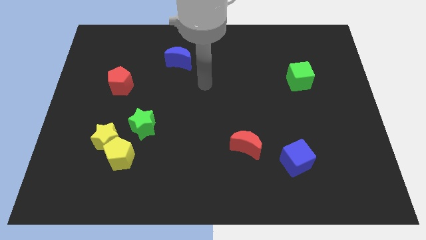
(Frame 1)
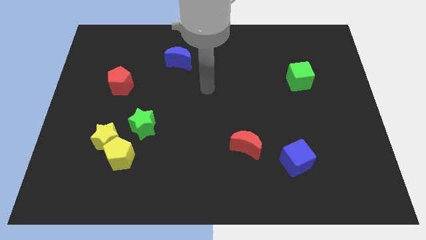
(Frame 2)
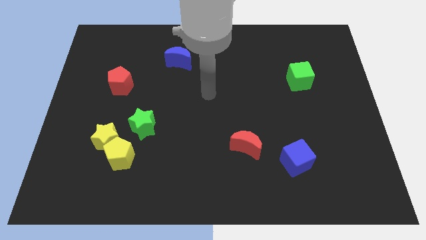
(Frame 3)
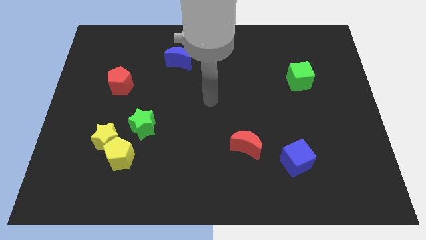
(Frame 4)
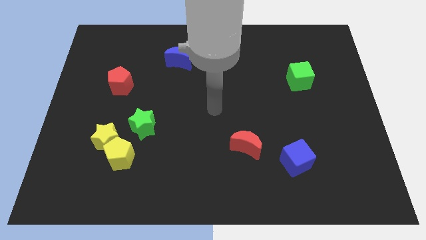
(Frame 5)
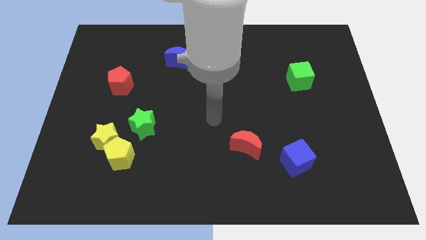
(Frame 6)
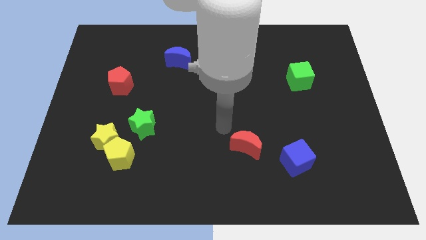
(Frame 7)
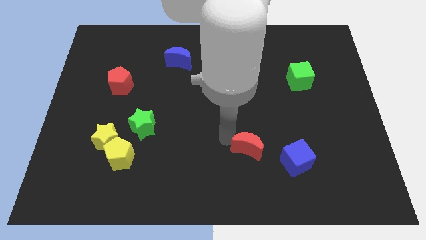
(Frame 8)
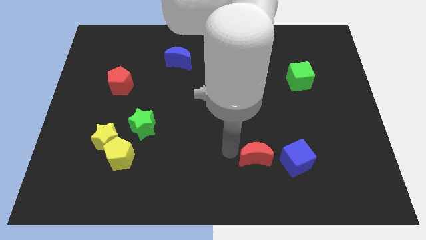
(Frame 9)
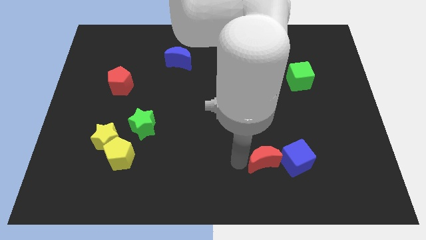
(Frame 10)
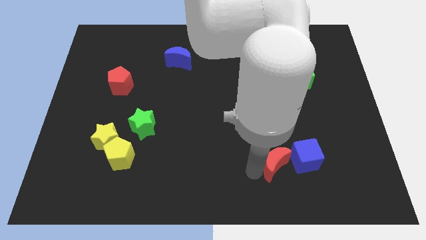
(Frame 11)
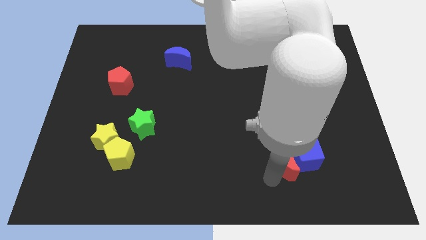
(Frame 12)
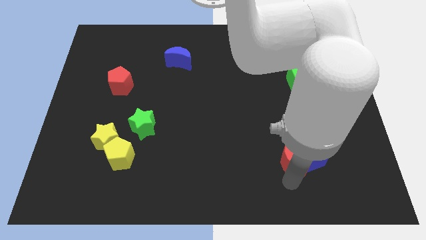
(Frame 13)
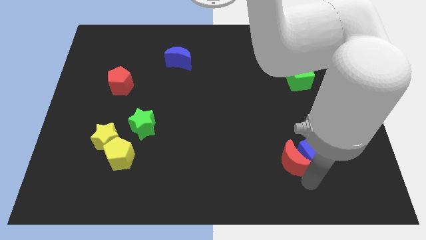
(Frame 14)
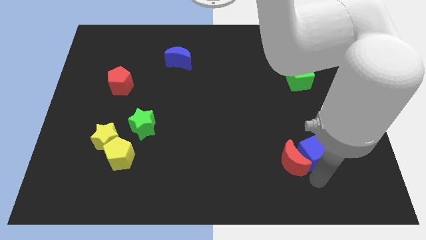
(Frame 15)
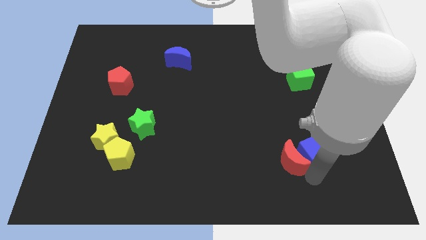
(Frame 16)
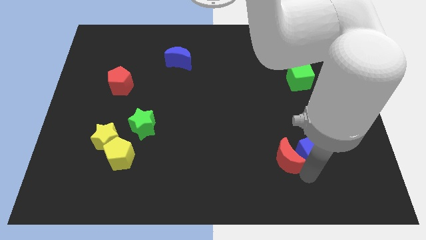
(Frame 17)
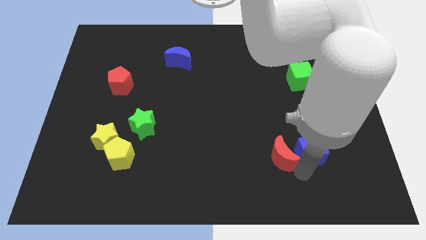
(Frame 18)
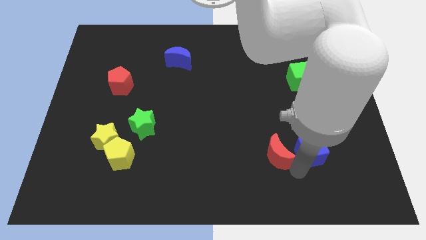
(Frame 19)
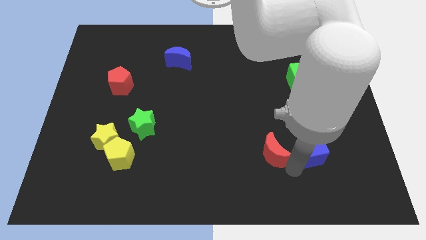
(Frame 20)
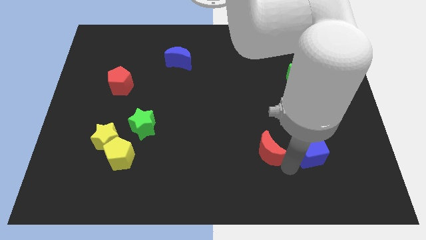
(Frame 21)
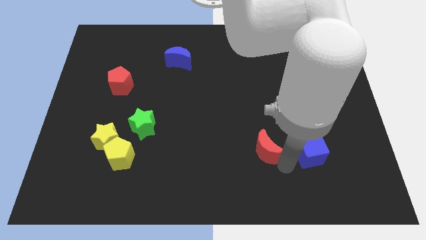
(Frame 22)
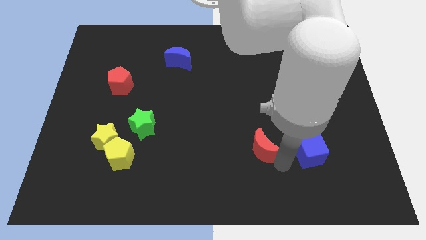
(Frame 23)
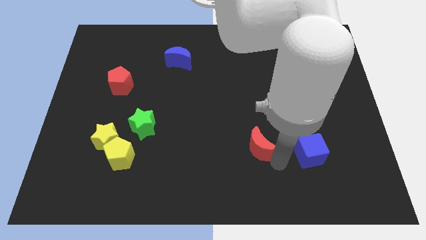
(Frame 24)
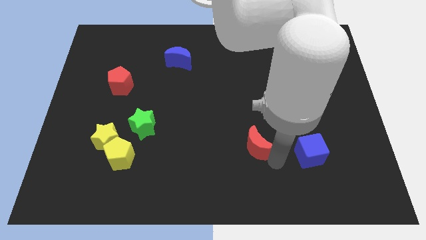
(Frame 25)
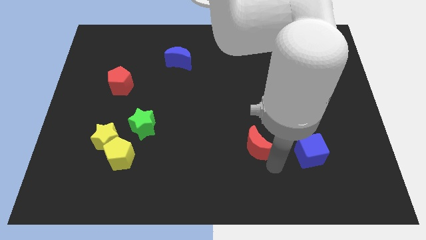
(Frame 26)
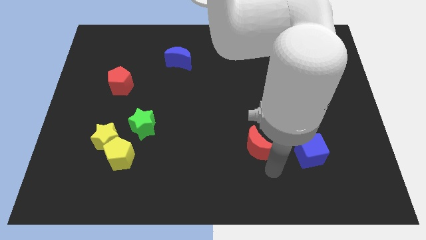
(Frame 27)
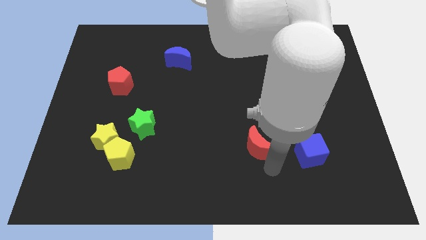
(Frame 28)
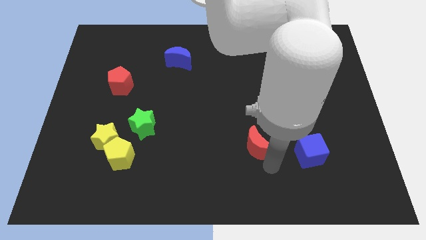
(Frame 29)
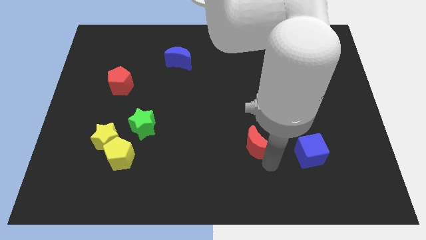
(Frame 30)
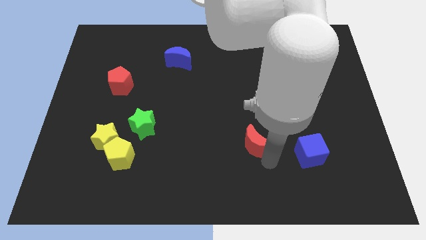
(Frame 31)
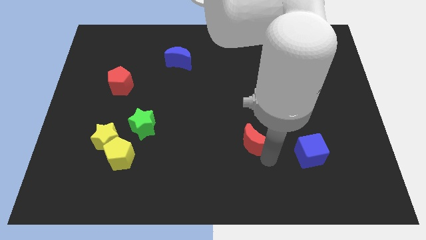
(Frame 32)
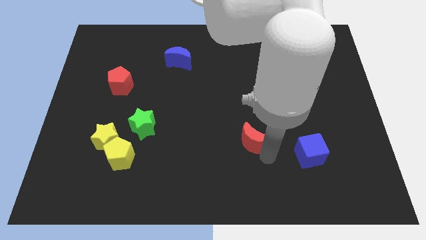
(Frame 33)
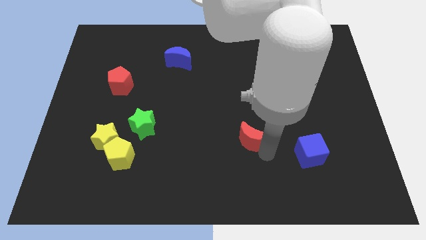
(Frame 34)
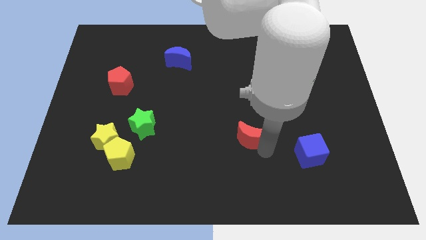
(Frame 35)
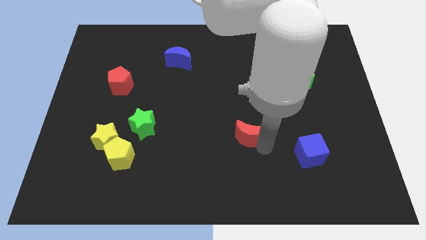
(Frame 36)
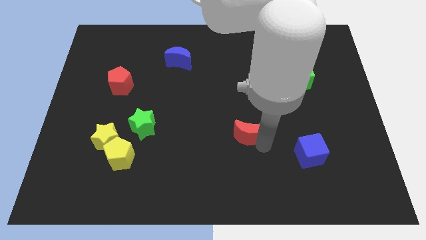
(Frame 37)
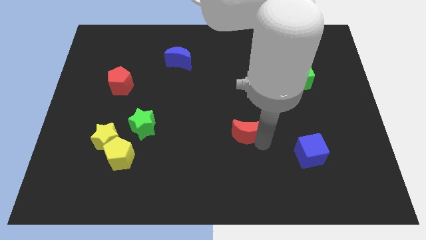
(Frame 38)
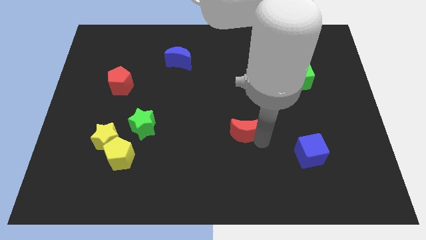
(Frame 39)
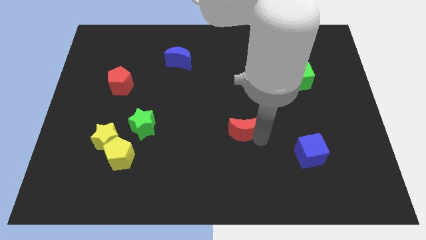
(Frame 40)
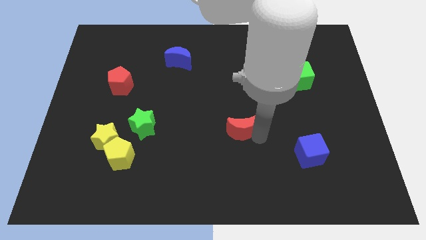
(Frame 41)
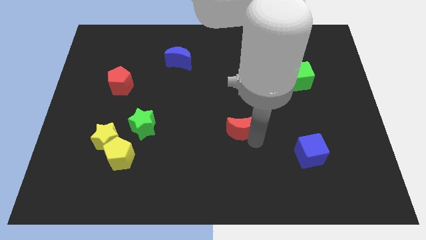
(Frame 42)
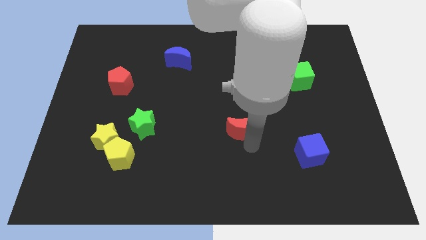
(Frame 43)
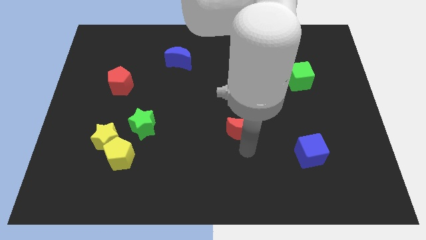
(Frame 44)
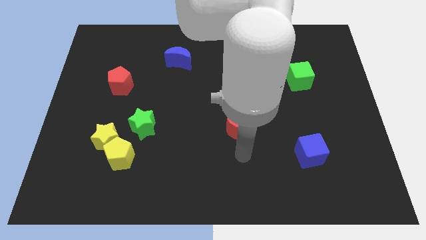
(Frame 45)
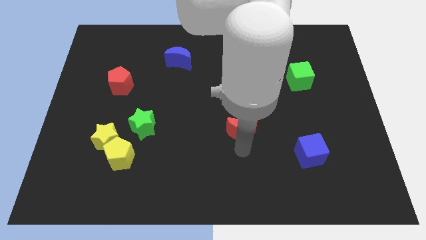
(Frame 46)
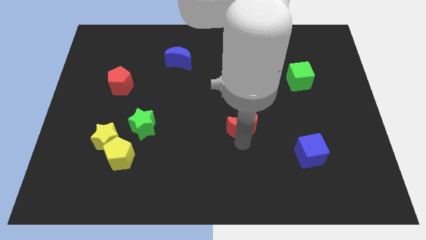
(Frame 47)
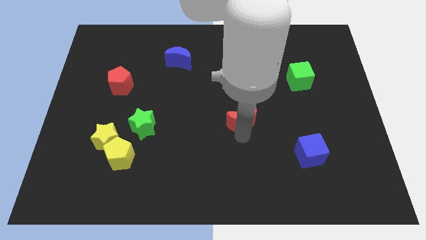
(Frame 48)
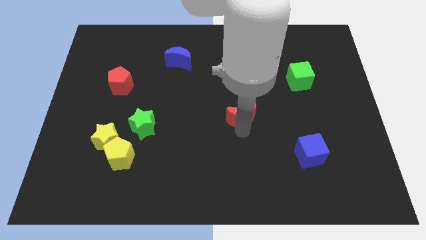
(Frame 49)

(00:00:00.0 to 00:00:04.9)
move the red moon slightly up

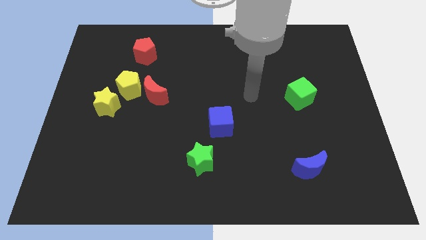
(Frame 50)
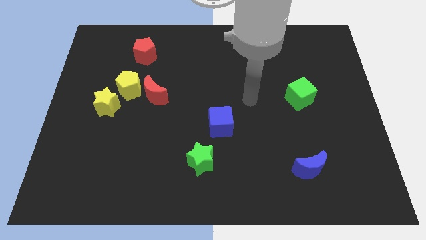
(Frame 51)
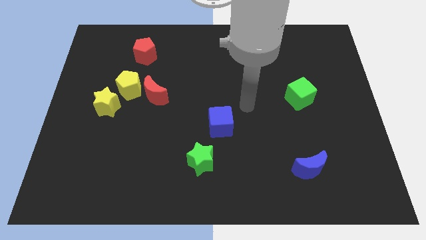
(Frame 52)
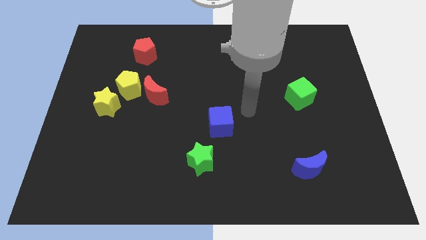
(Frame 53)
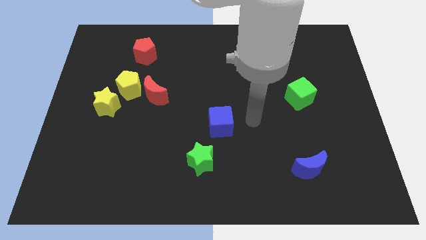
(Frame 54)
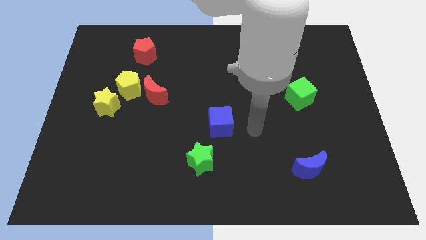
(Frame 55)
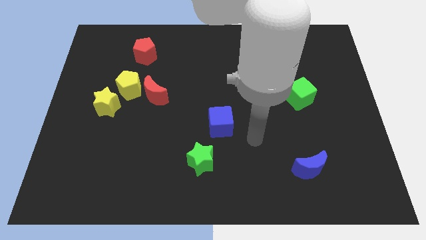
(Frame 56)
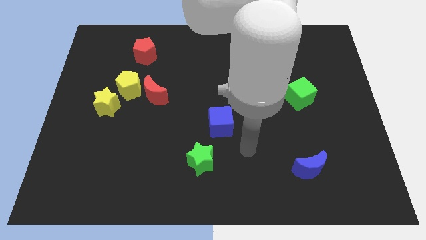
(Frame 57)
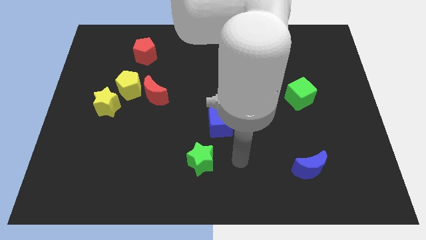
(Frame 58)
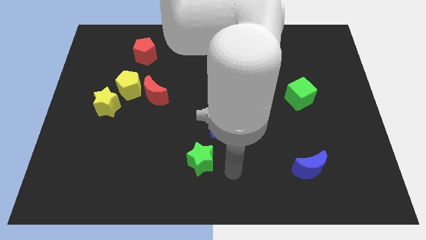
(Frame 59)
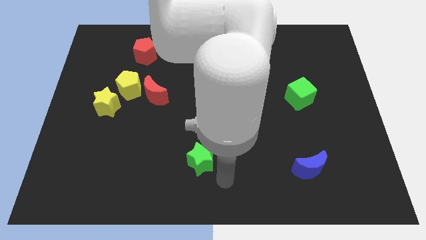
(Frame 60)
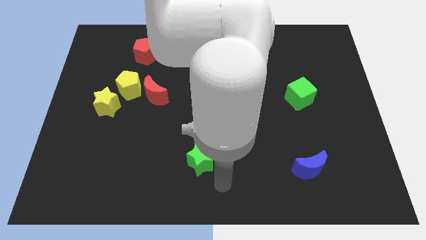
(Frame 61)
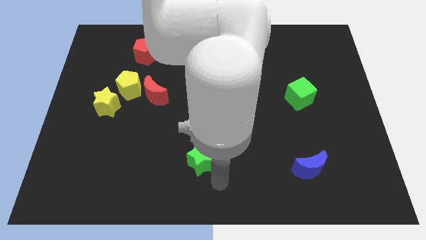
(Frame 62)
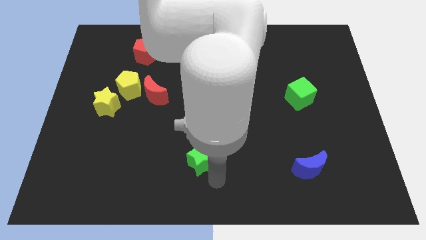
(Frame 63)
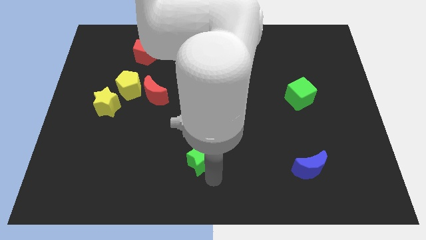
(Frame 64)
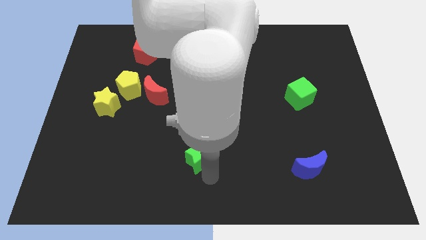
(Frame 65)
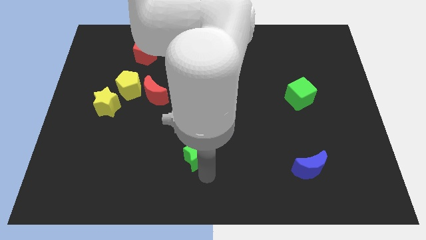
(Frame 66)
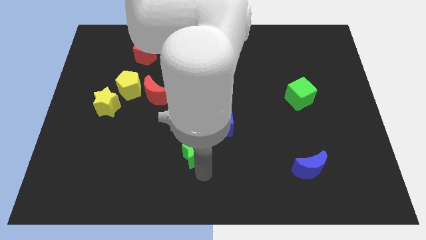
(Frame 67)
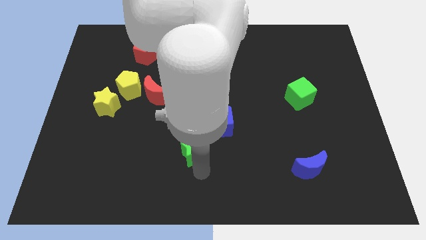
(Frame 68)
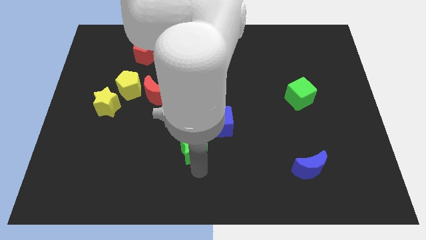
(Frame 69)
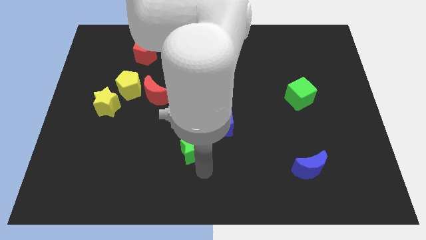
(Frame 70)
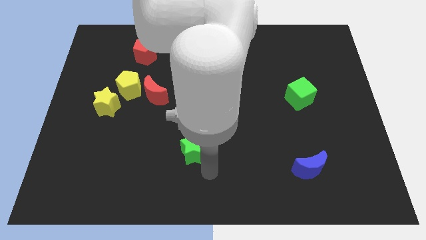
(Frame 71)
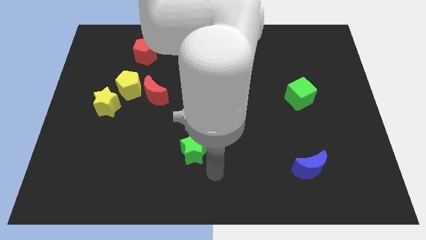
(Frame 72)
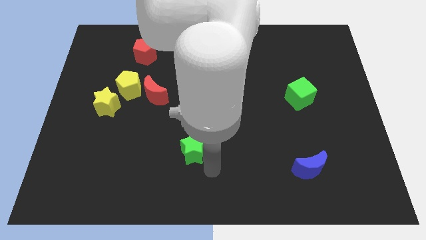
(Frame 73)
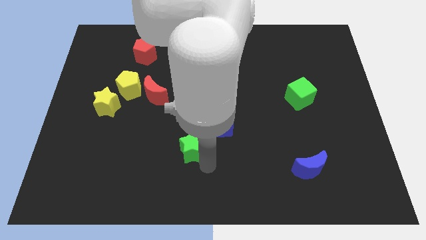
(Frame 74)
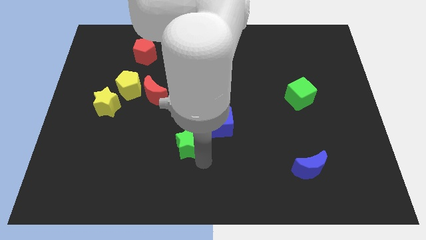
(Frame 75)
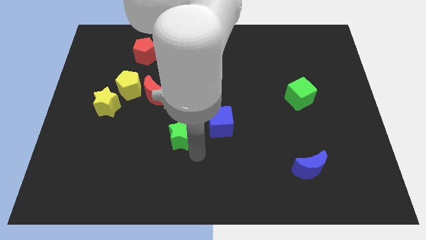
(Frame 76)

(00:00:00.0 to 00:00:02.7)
slightly move the green star upwards and left

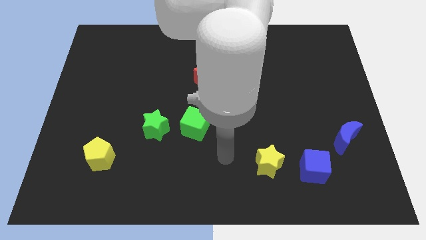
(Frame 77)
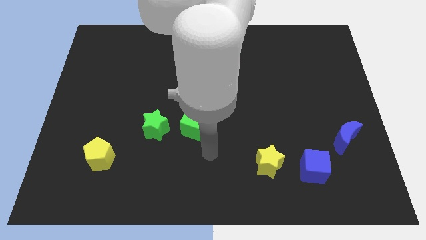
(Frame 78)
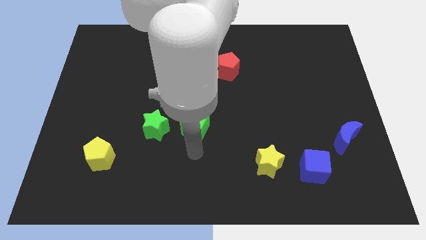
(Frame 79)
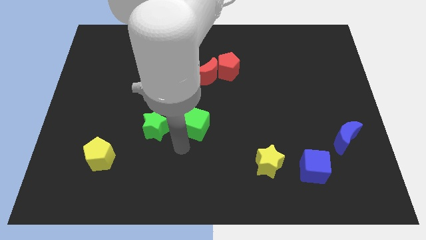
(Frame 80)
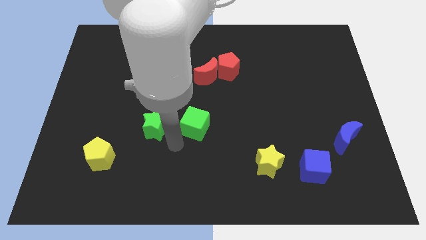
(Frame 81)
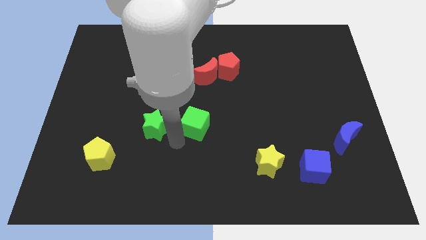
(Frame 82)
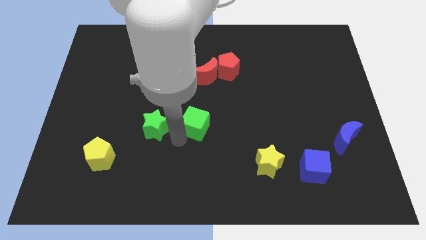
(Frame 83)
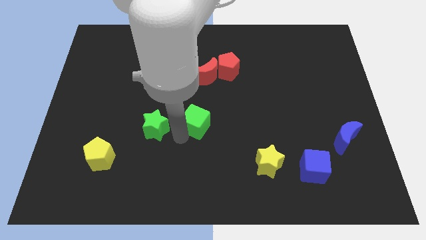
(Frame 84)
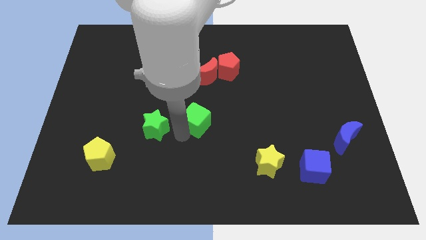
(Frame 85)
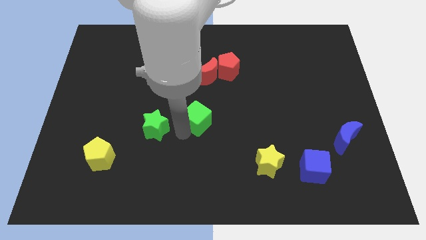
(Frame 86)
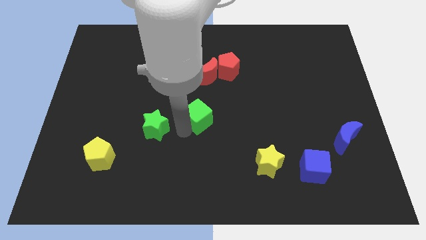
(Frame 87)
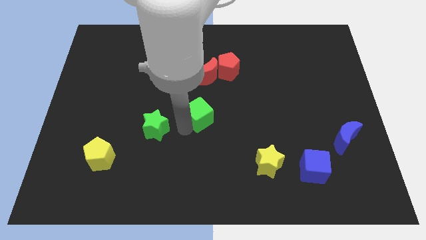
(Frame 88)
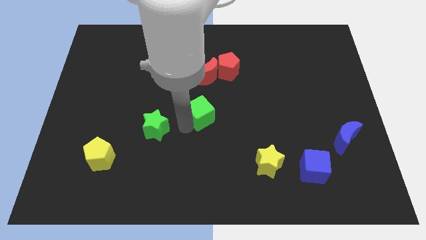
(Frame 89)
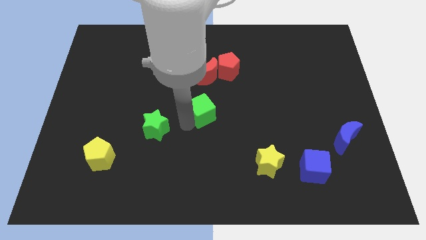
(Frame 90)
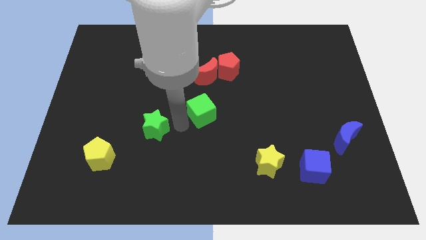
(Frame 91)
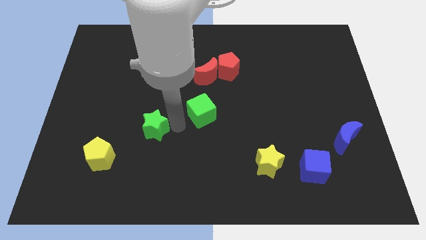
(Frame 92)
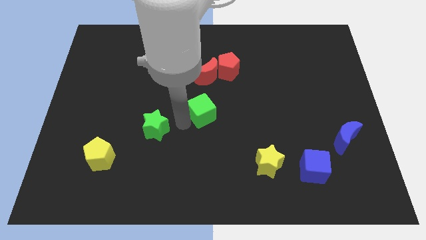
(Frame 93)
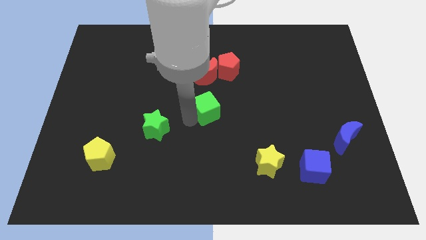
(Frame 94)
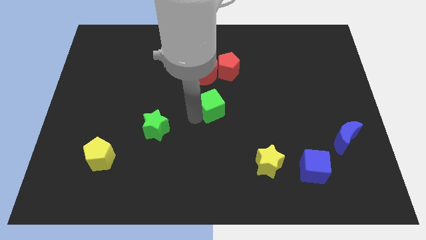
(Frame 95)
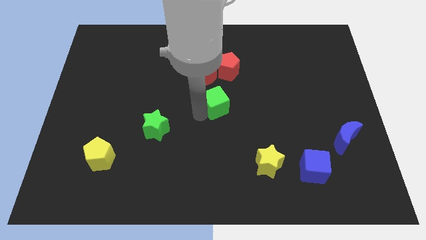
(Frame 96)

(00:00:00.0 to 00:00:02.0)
push the green cube a bit diagonally up and right
